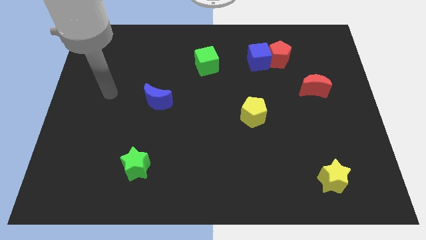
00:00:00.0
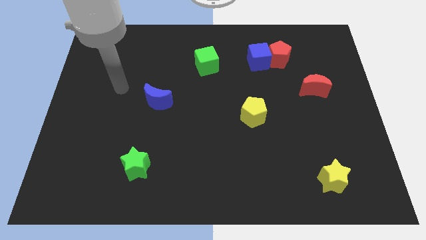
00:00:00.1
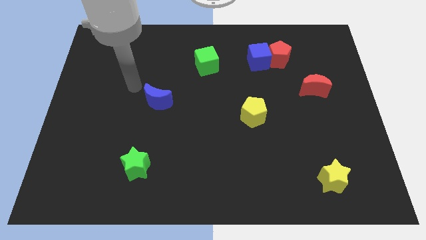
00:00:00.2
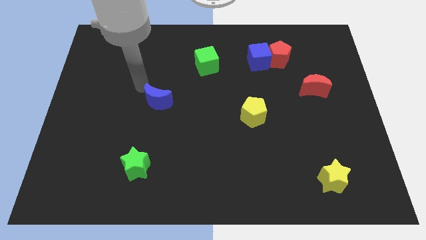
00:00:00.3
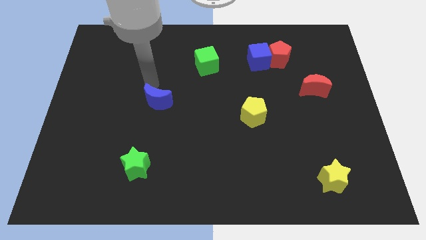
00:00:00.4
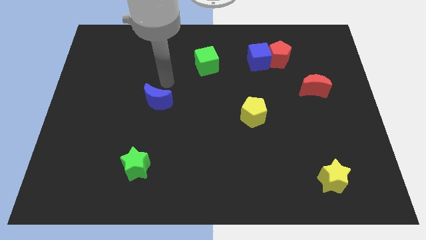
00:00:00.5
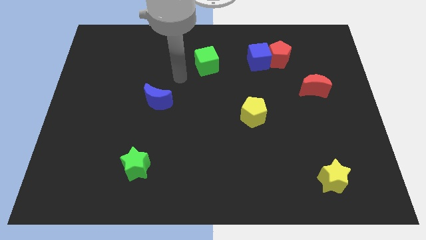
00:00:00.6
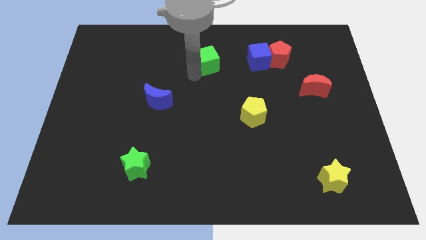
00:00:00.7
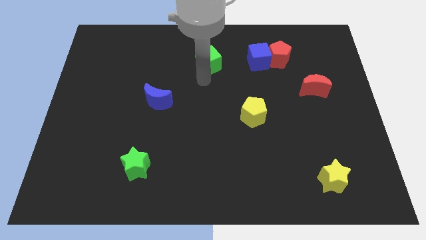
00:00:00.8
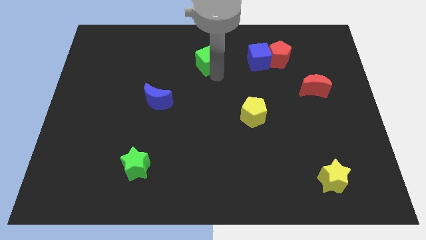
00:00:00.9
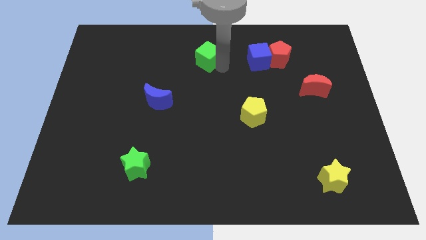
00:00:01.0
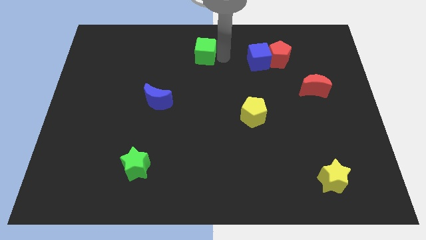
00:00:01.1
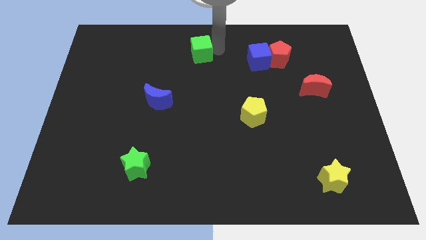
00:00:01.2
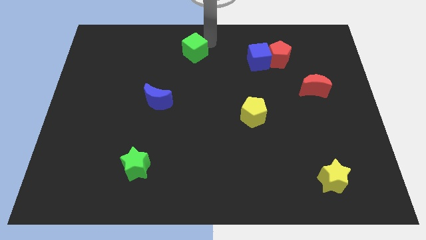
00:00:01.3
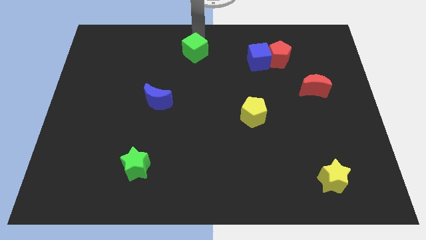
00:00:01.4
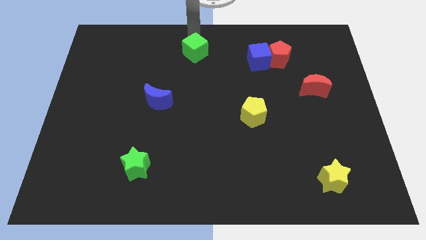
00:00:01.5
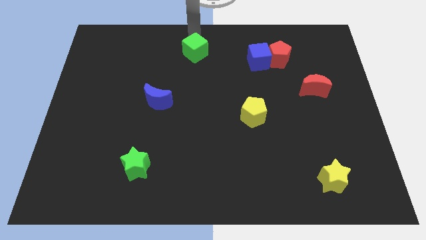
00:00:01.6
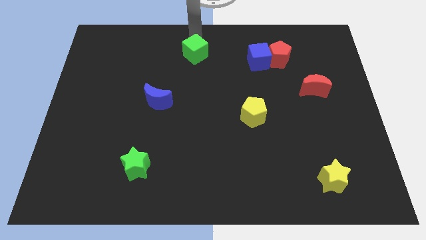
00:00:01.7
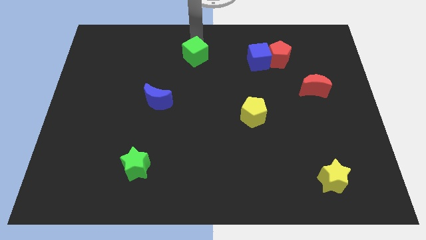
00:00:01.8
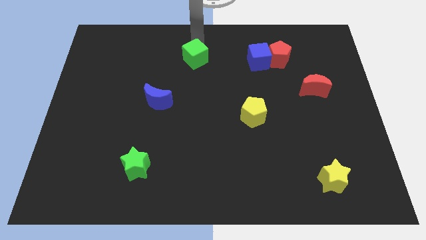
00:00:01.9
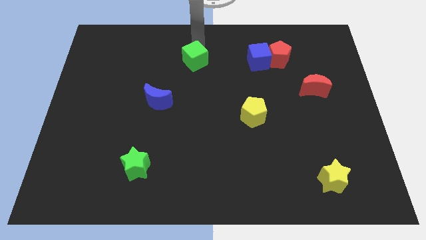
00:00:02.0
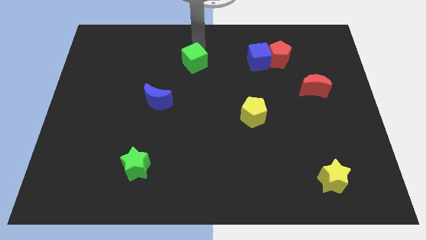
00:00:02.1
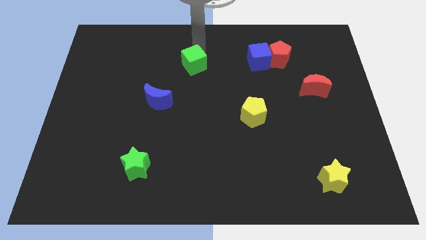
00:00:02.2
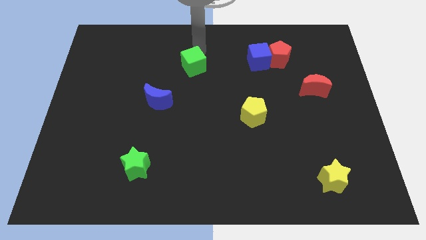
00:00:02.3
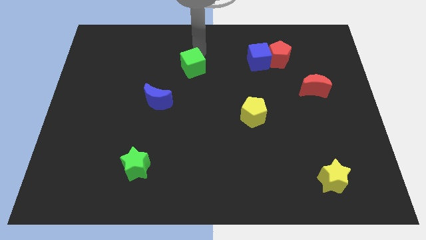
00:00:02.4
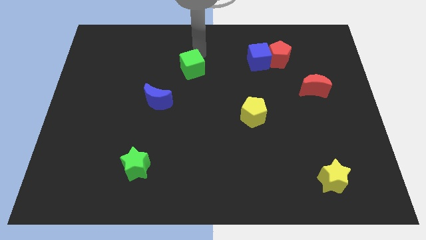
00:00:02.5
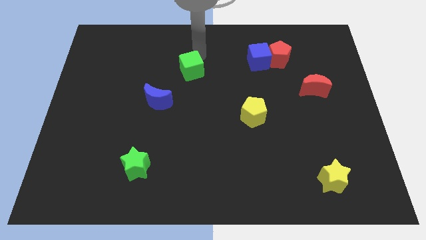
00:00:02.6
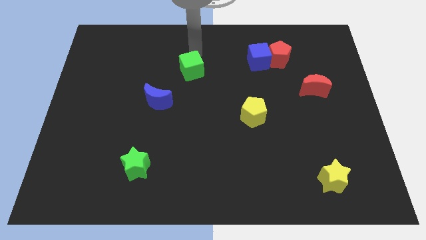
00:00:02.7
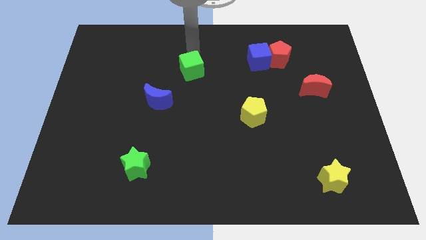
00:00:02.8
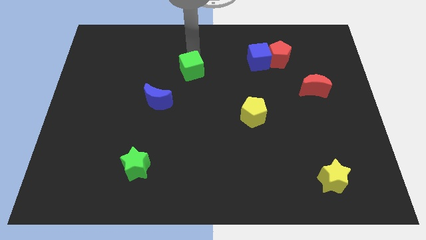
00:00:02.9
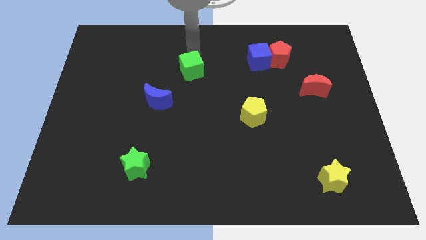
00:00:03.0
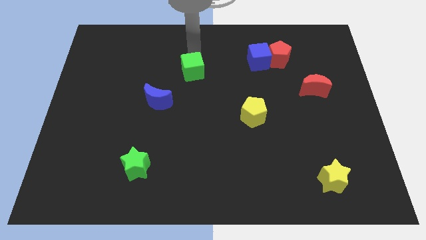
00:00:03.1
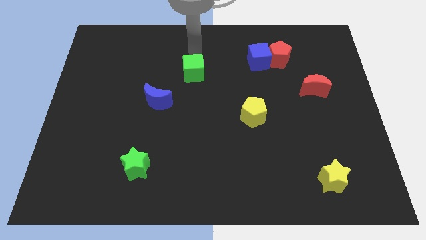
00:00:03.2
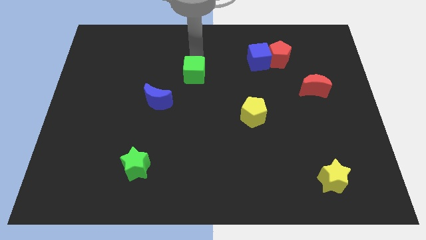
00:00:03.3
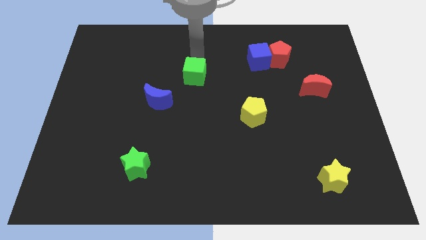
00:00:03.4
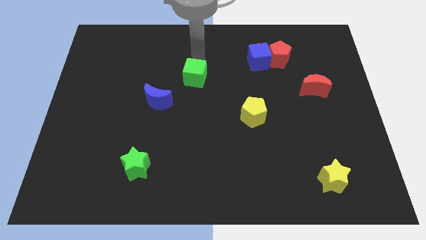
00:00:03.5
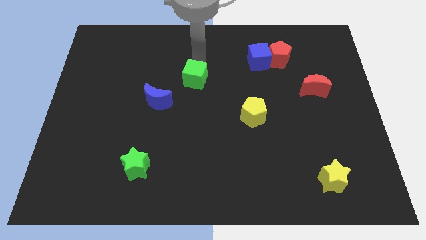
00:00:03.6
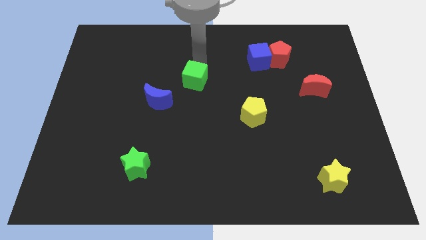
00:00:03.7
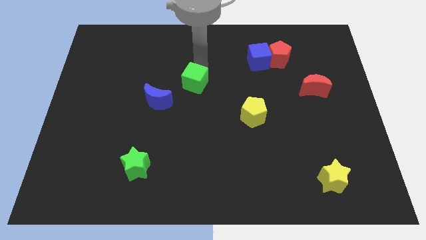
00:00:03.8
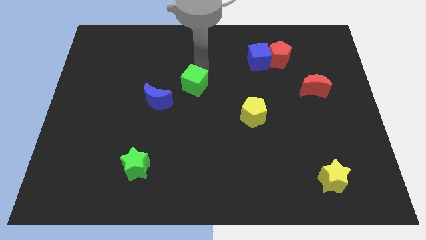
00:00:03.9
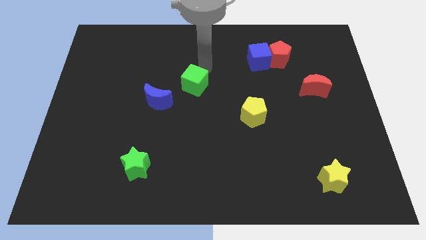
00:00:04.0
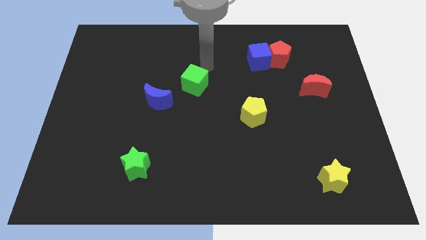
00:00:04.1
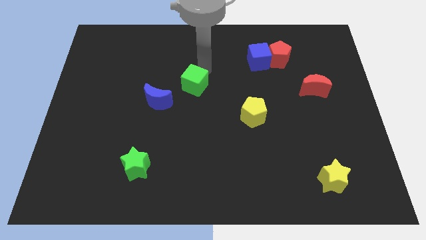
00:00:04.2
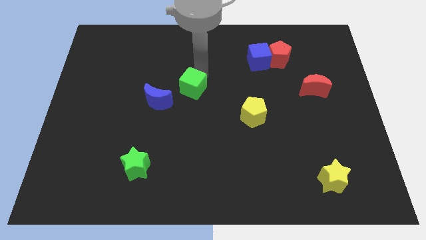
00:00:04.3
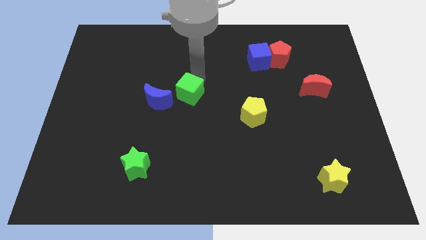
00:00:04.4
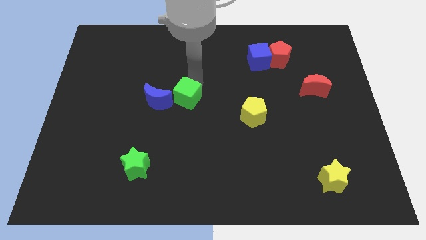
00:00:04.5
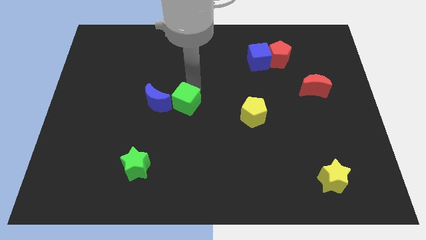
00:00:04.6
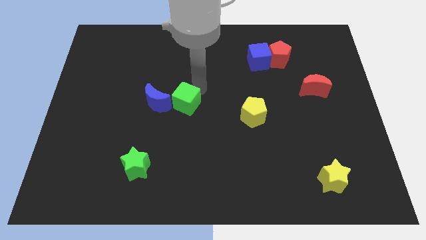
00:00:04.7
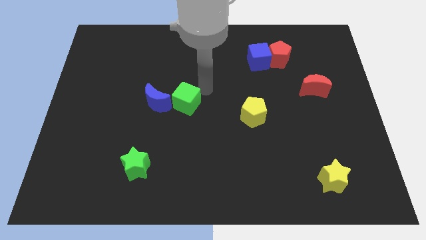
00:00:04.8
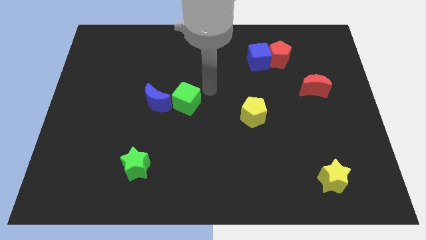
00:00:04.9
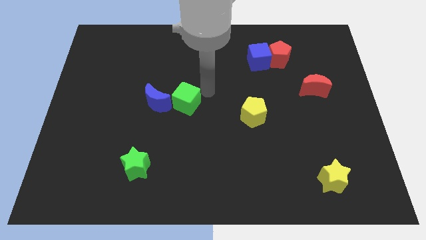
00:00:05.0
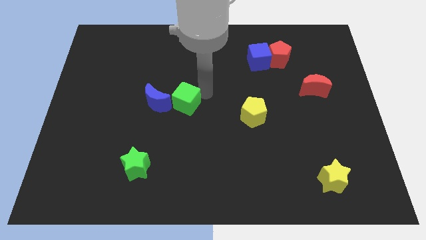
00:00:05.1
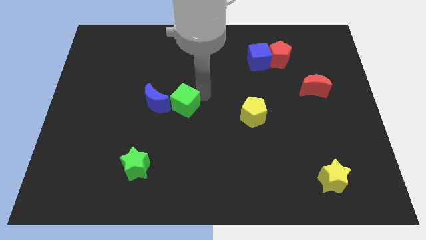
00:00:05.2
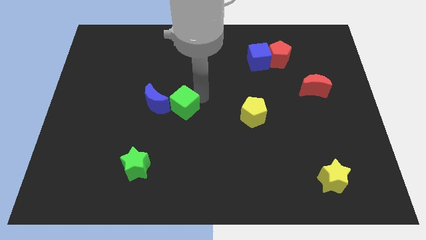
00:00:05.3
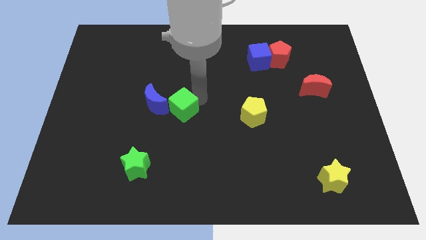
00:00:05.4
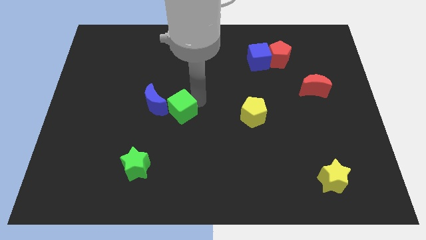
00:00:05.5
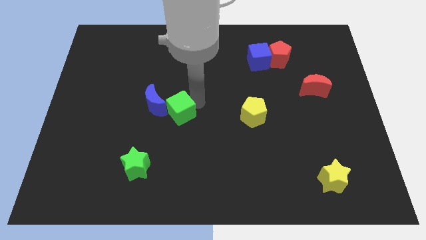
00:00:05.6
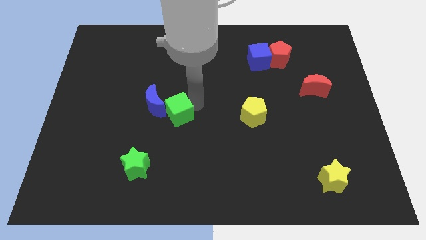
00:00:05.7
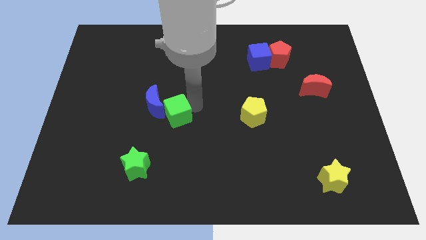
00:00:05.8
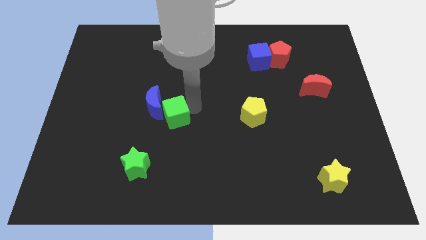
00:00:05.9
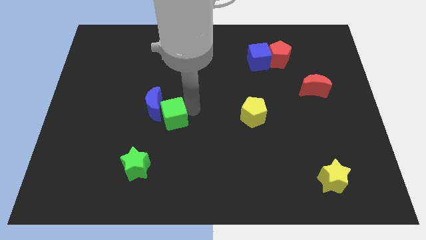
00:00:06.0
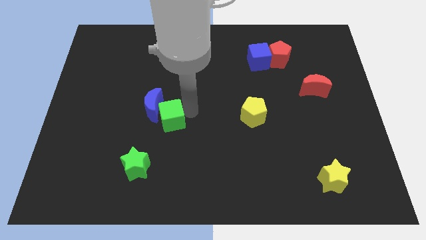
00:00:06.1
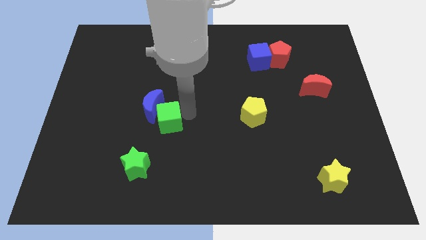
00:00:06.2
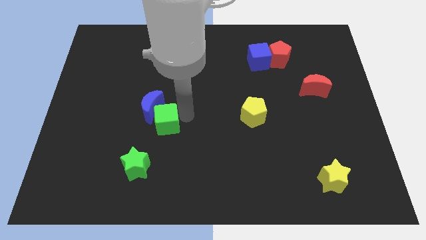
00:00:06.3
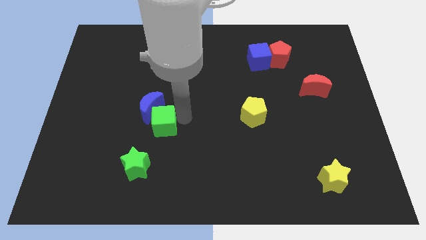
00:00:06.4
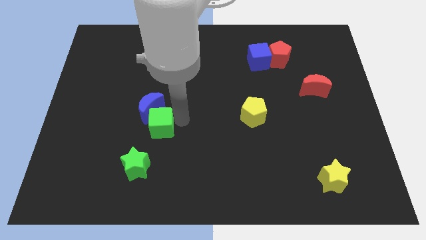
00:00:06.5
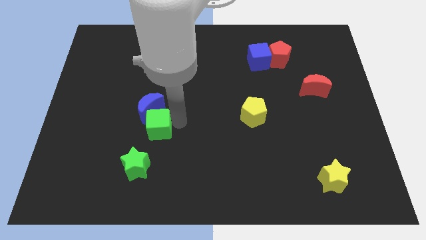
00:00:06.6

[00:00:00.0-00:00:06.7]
slide the green cube diagonally down and to the left

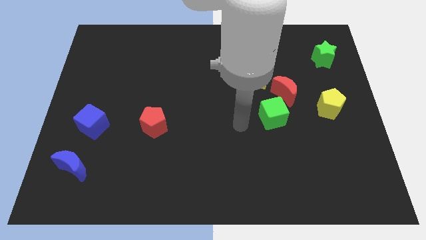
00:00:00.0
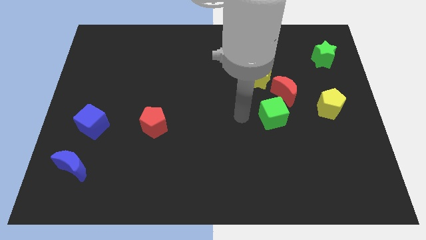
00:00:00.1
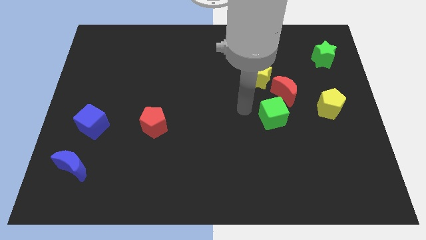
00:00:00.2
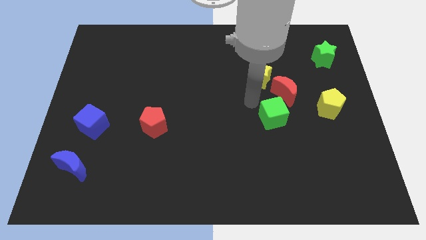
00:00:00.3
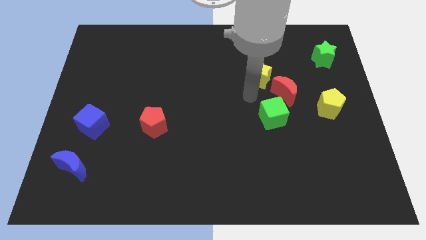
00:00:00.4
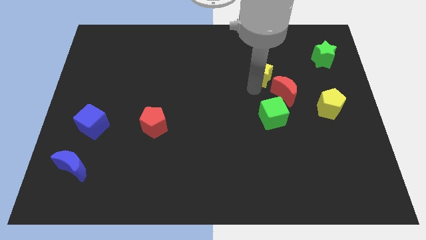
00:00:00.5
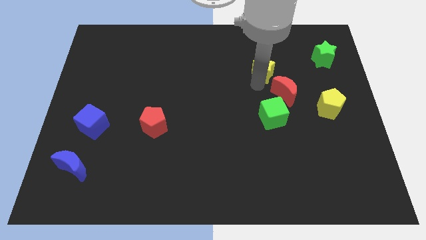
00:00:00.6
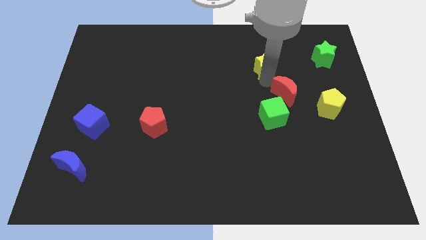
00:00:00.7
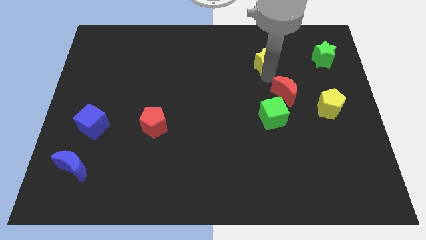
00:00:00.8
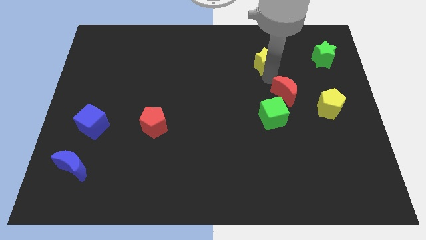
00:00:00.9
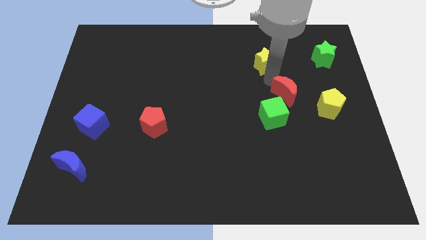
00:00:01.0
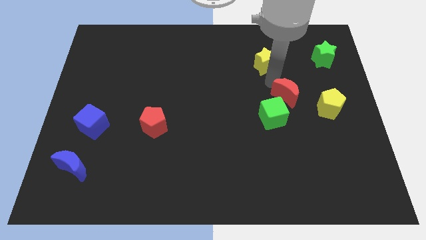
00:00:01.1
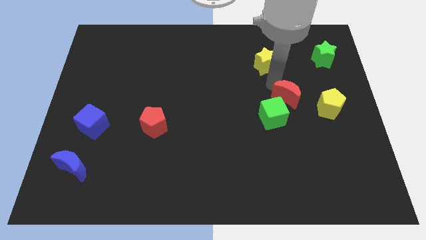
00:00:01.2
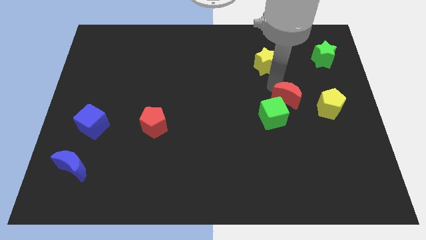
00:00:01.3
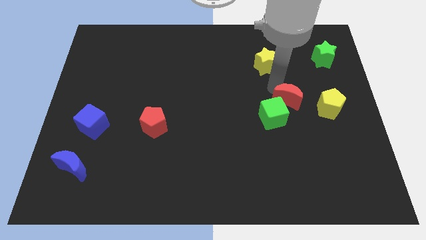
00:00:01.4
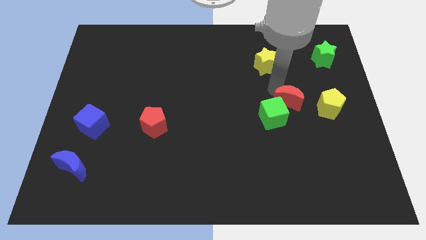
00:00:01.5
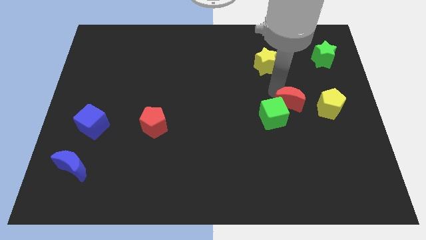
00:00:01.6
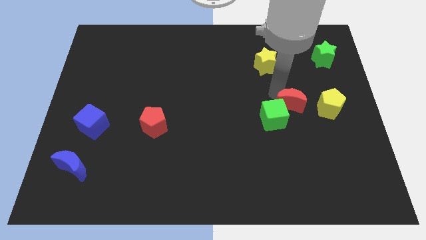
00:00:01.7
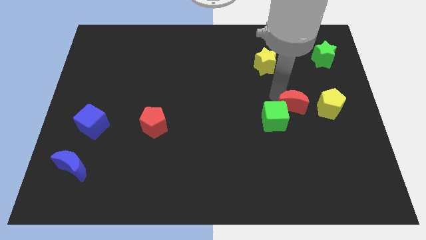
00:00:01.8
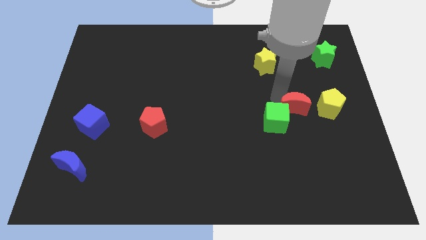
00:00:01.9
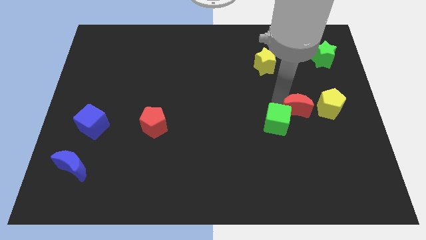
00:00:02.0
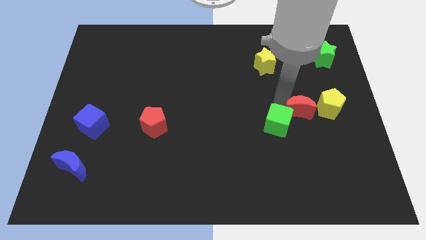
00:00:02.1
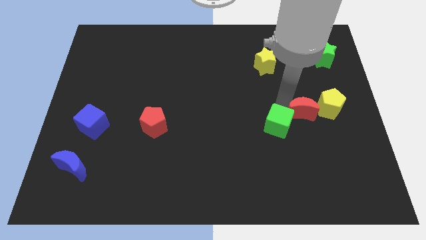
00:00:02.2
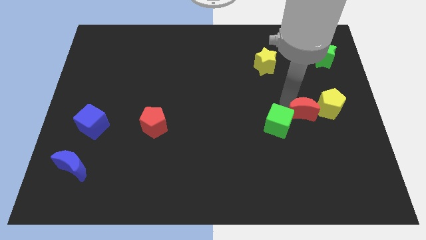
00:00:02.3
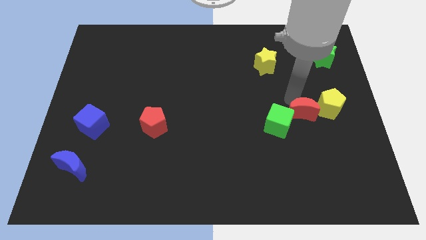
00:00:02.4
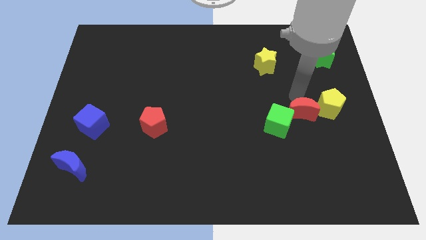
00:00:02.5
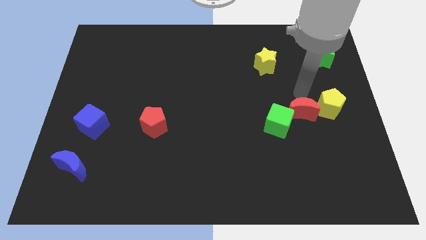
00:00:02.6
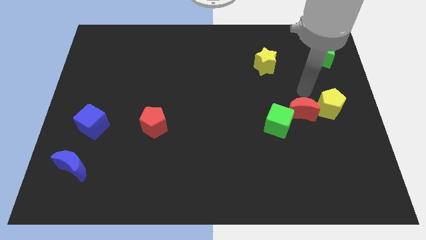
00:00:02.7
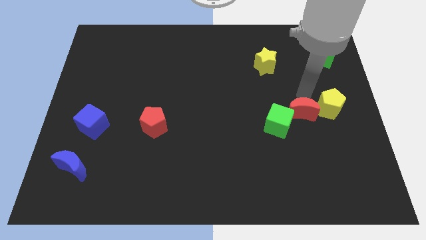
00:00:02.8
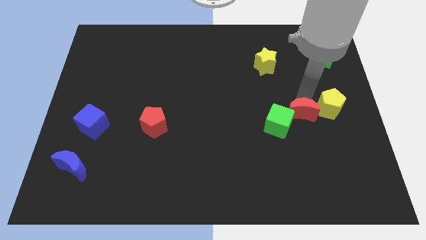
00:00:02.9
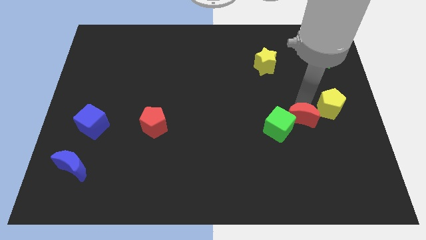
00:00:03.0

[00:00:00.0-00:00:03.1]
slightly push the red moon down
